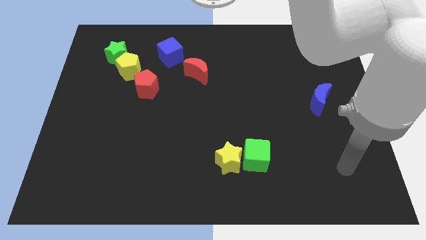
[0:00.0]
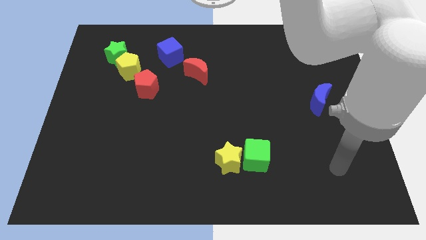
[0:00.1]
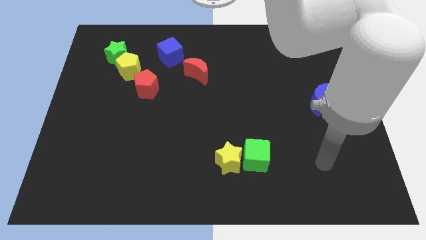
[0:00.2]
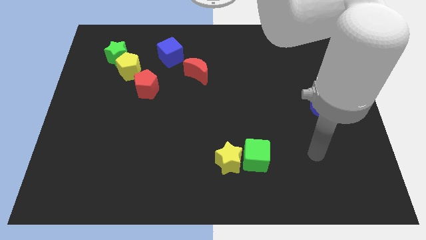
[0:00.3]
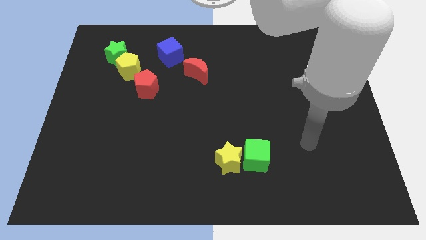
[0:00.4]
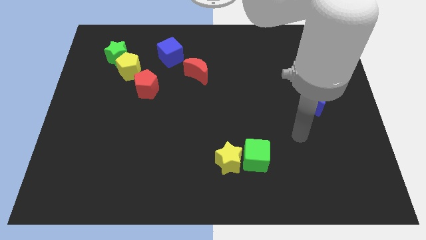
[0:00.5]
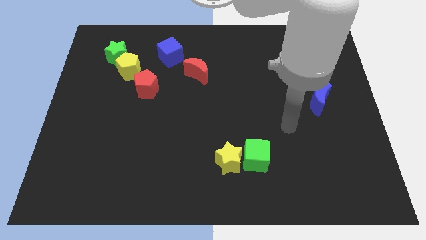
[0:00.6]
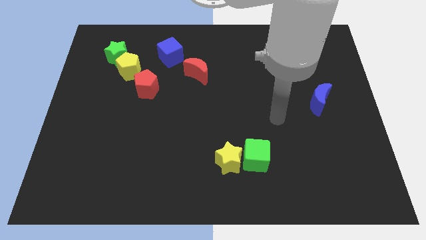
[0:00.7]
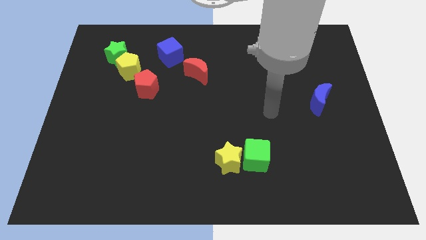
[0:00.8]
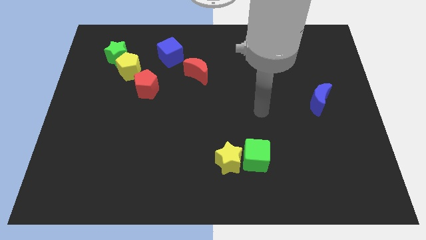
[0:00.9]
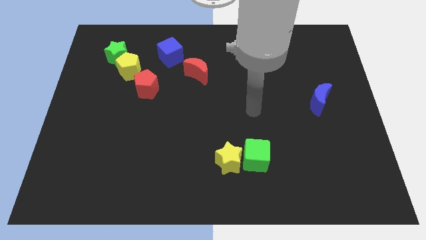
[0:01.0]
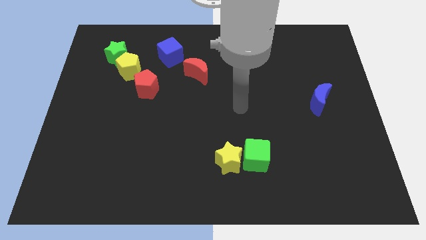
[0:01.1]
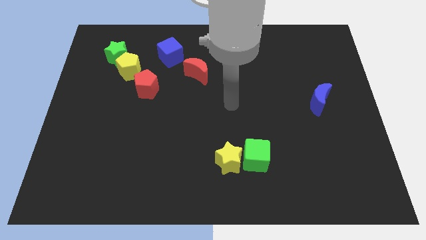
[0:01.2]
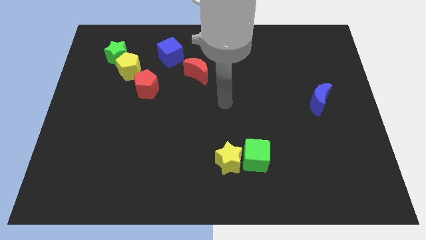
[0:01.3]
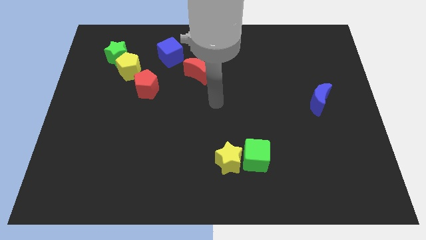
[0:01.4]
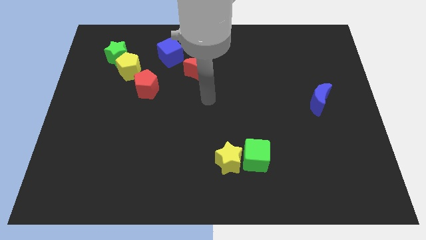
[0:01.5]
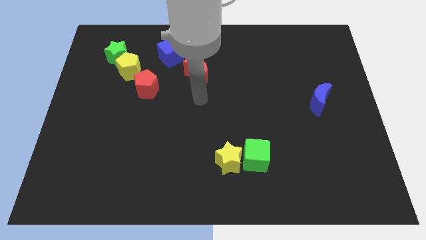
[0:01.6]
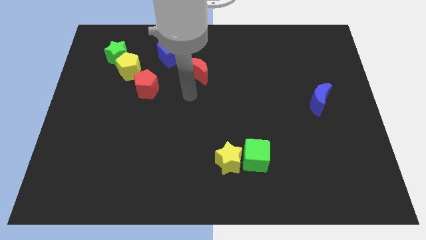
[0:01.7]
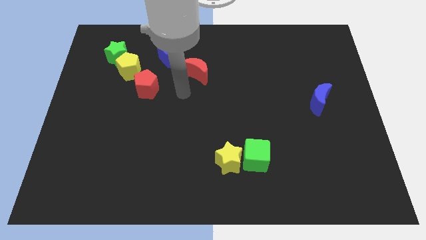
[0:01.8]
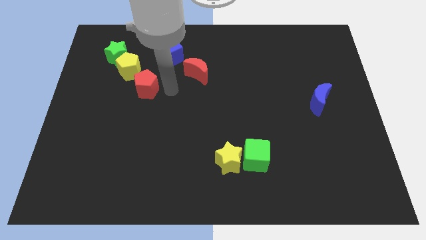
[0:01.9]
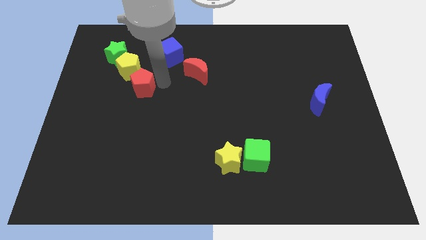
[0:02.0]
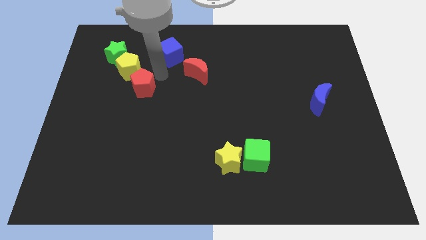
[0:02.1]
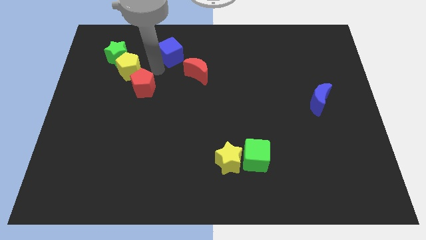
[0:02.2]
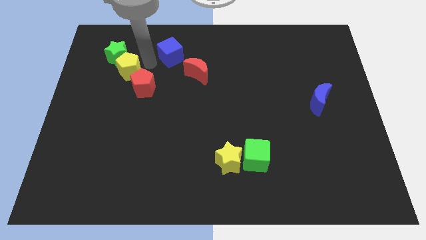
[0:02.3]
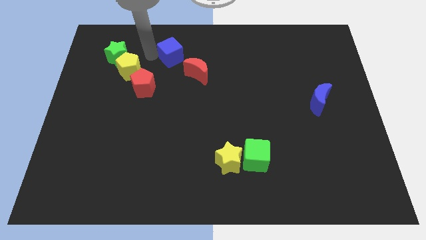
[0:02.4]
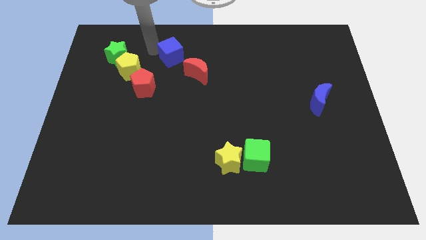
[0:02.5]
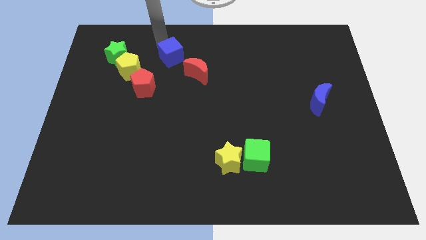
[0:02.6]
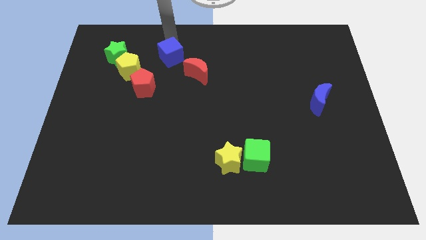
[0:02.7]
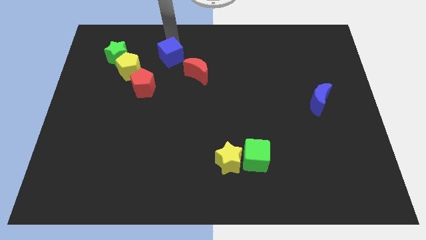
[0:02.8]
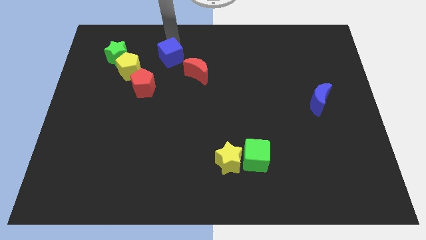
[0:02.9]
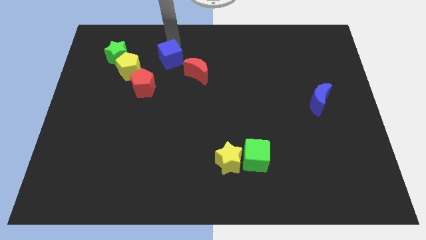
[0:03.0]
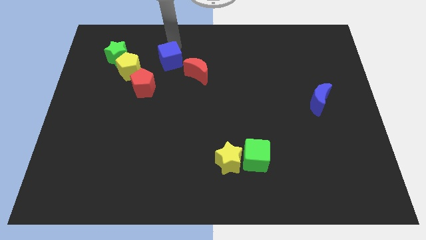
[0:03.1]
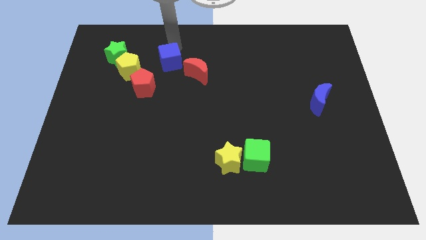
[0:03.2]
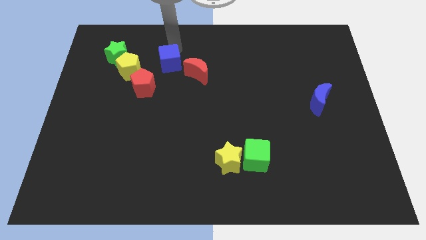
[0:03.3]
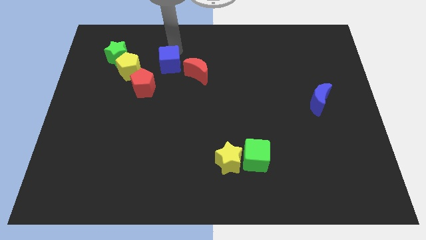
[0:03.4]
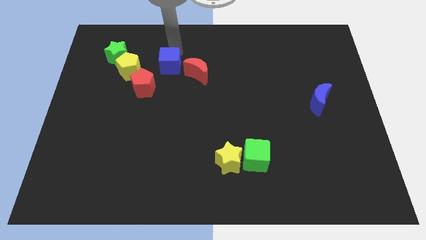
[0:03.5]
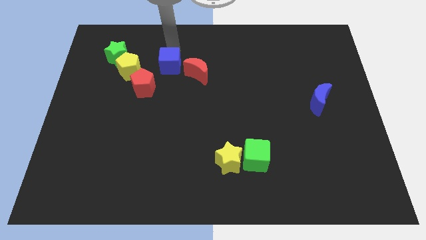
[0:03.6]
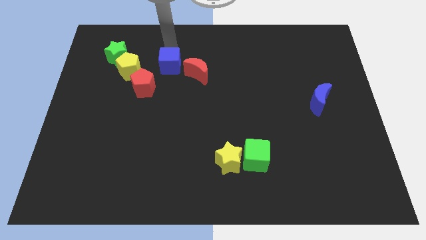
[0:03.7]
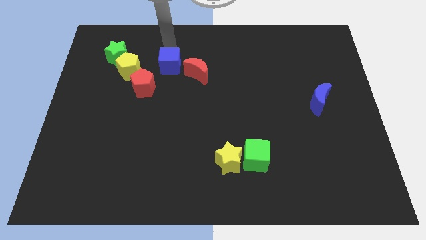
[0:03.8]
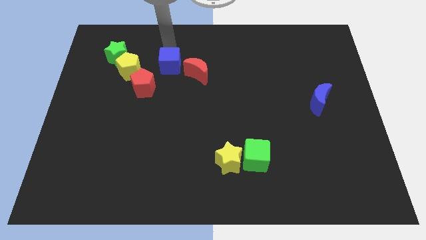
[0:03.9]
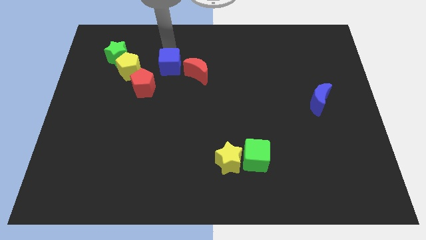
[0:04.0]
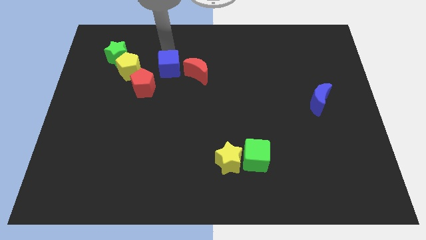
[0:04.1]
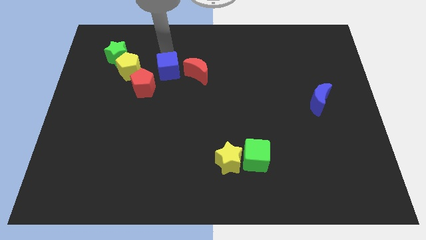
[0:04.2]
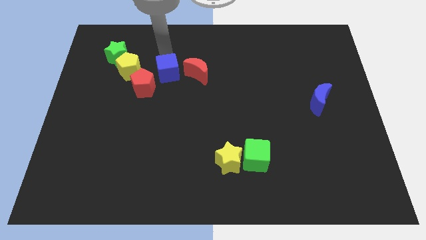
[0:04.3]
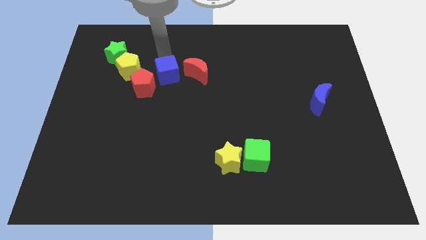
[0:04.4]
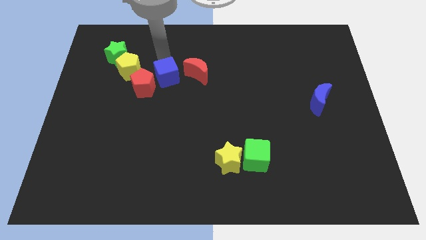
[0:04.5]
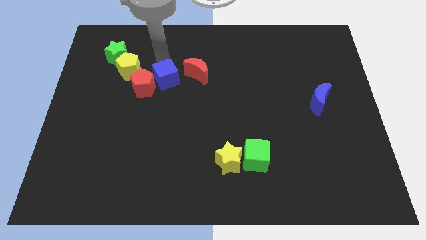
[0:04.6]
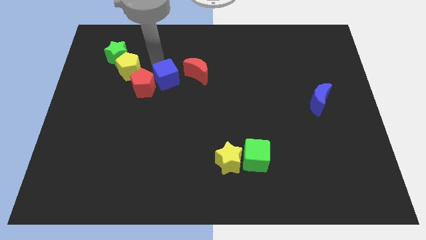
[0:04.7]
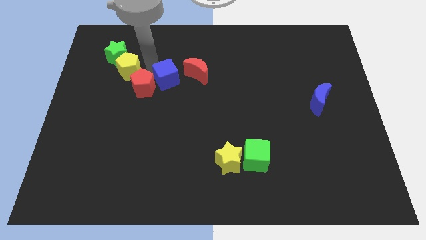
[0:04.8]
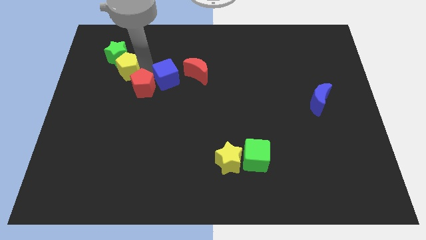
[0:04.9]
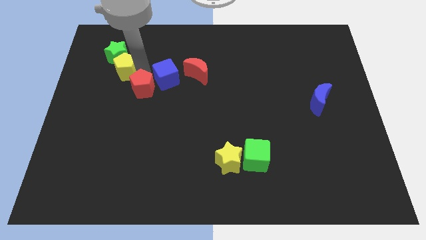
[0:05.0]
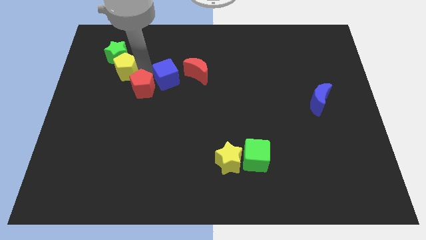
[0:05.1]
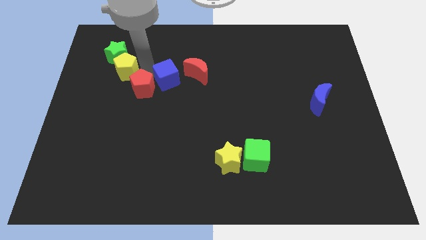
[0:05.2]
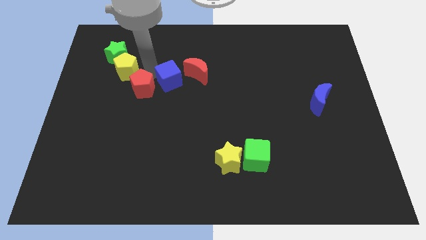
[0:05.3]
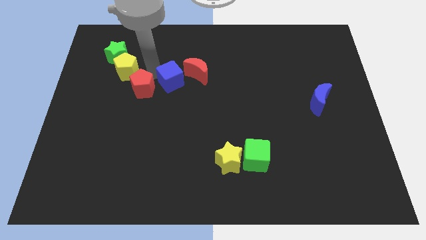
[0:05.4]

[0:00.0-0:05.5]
move the blue cube to the middle of the board
